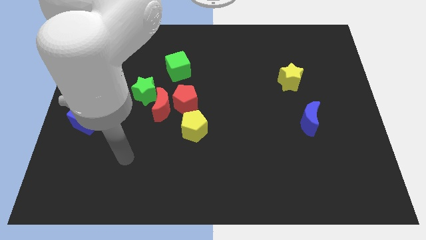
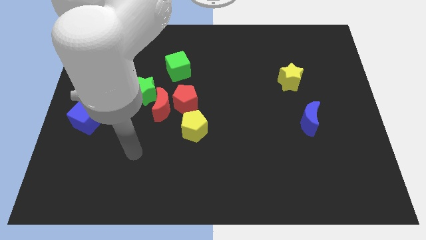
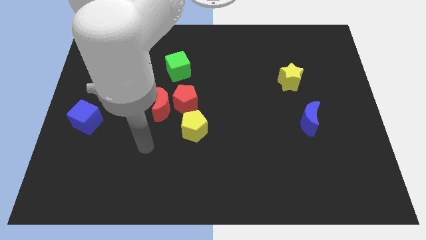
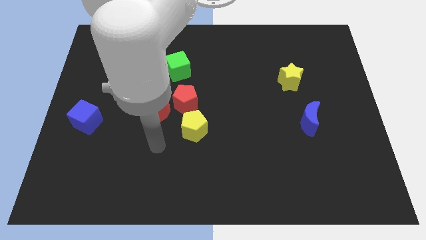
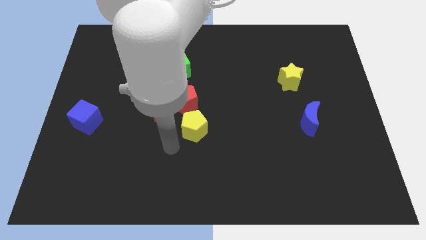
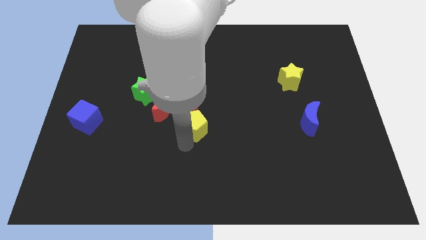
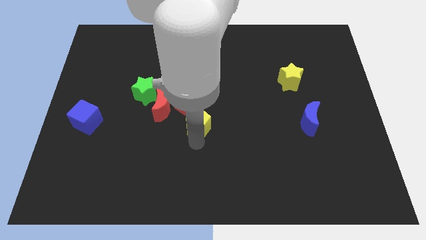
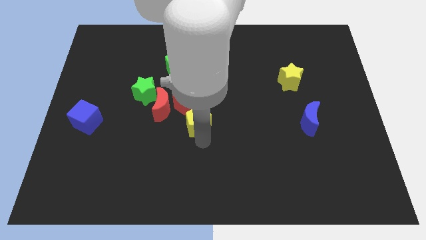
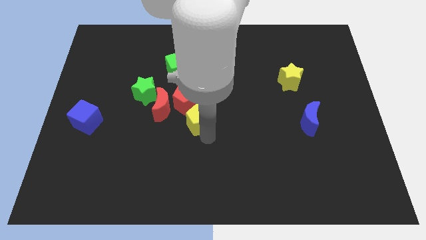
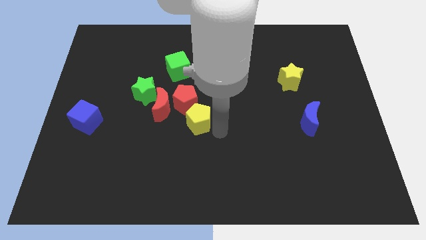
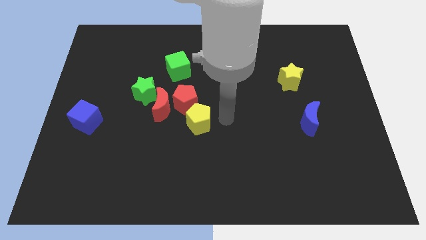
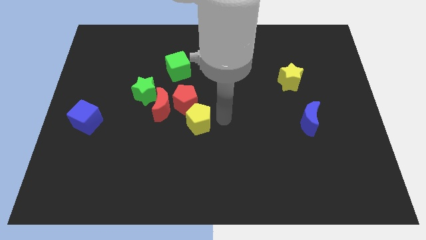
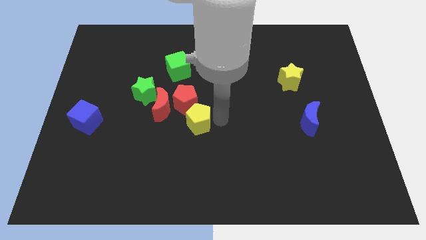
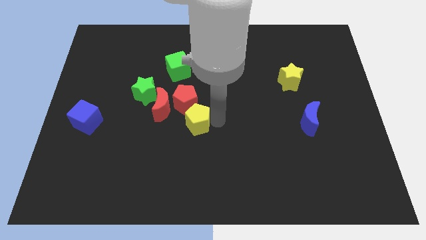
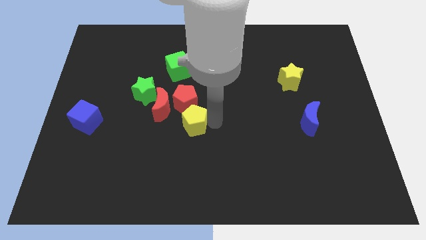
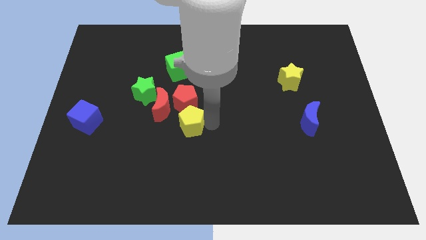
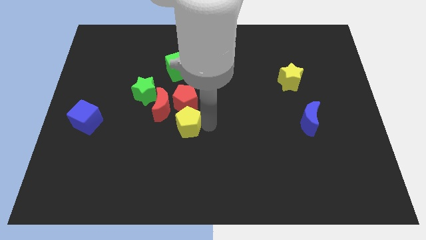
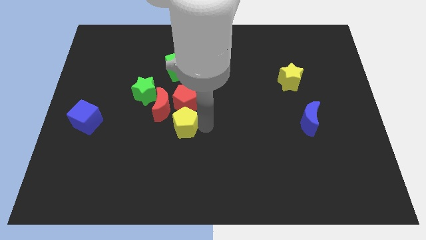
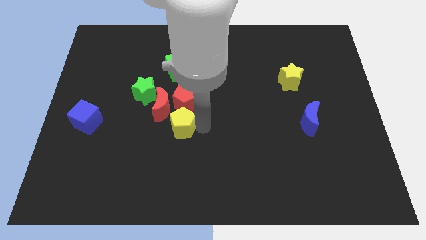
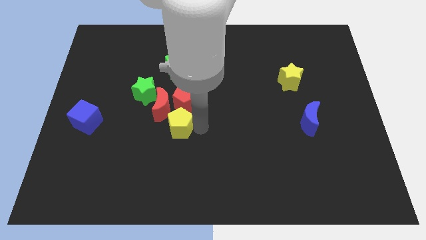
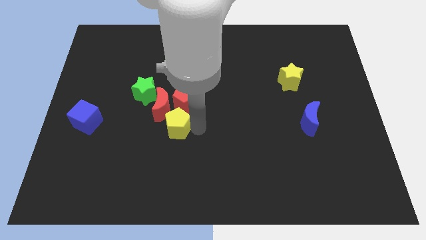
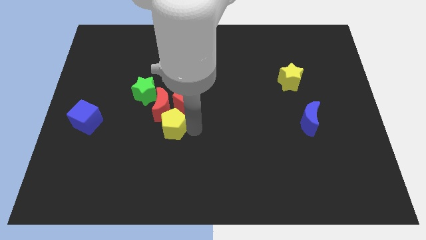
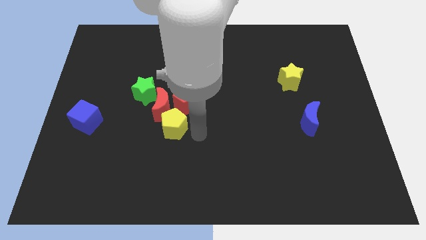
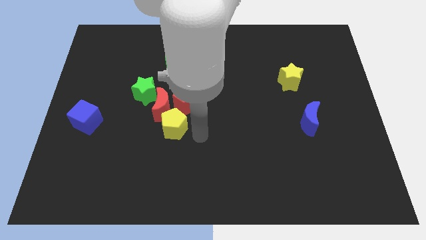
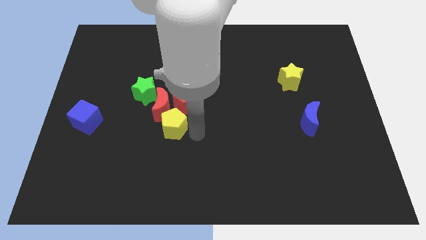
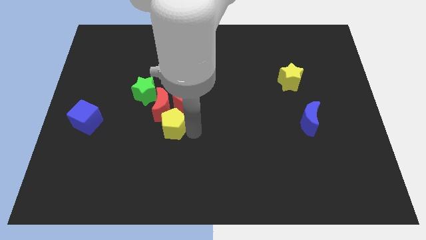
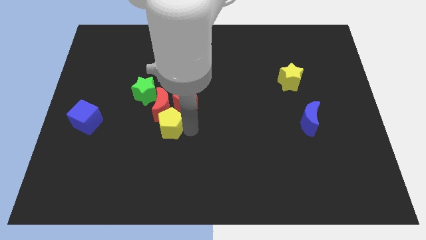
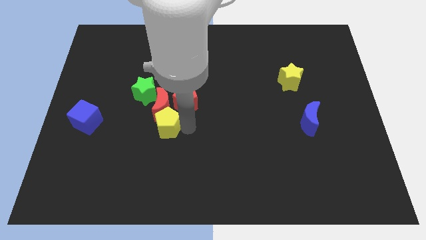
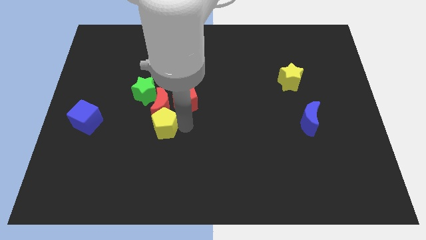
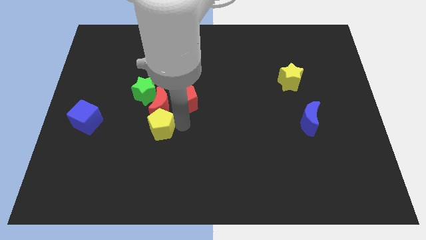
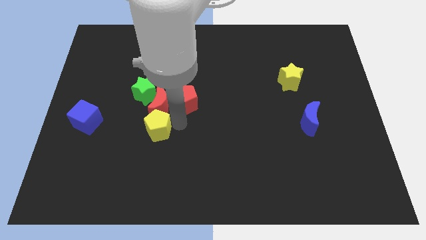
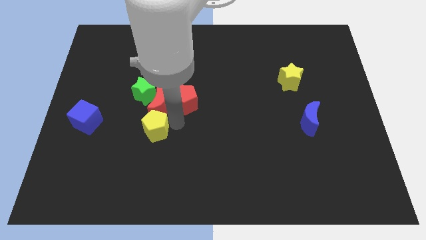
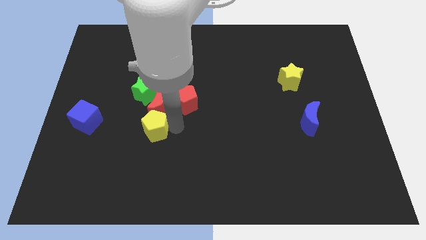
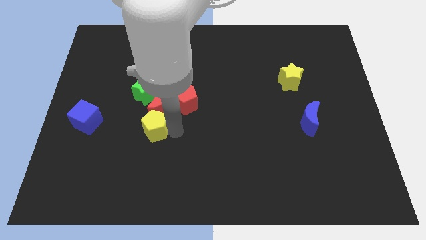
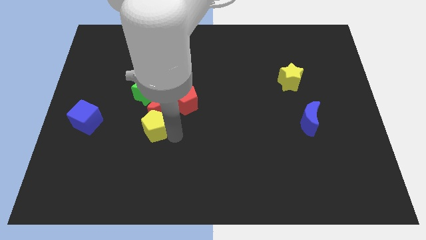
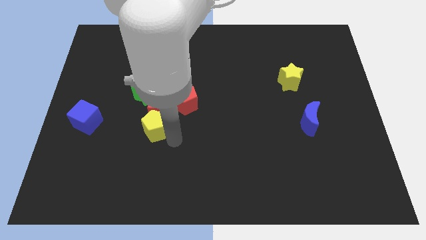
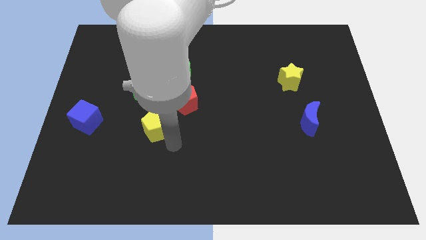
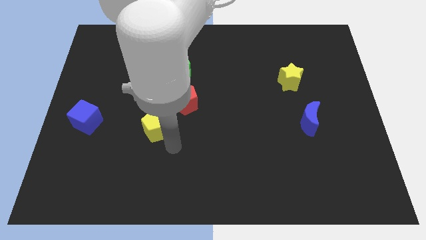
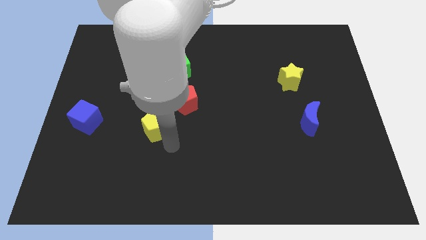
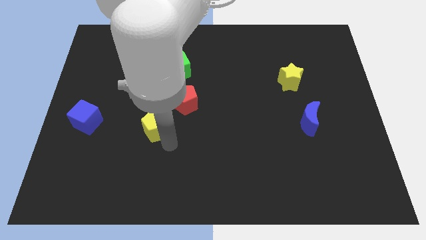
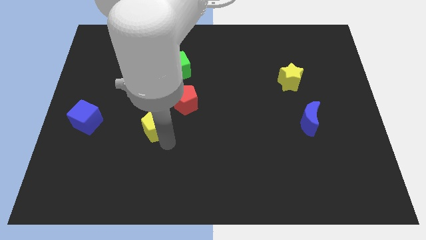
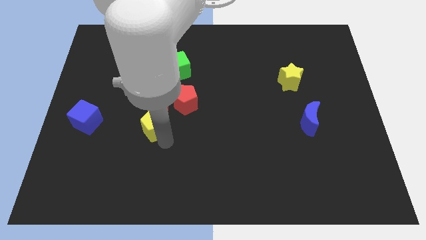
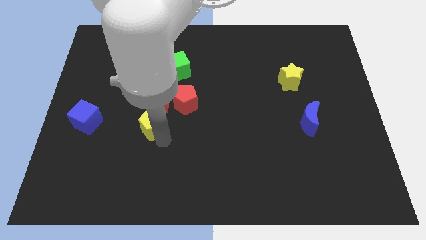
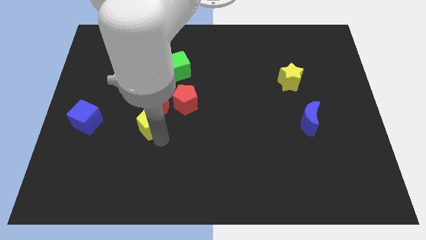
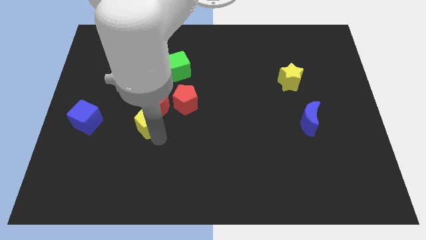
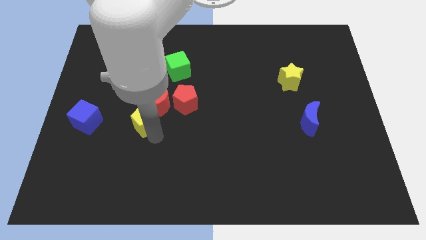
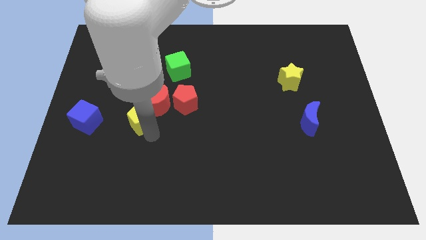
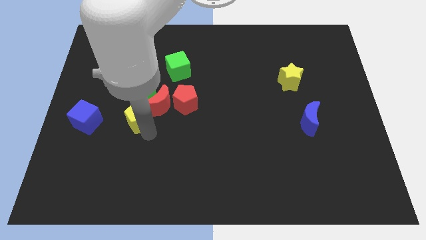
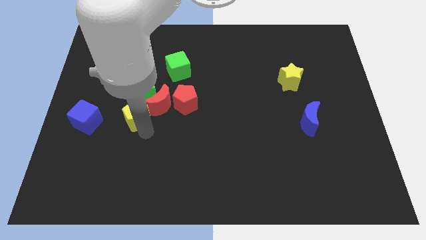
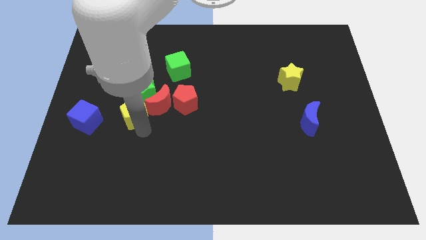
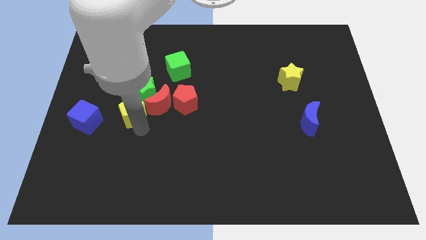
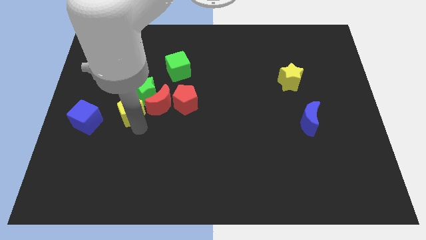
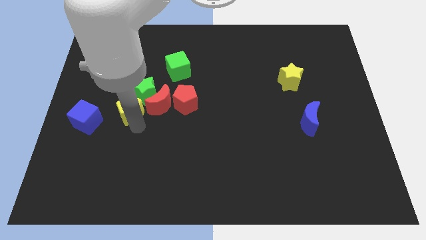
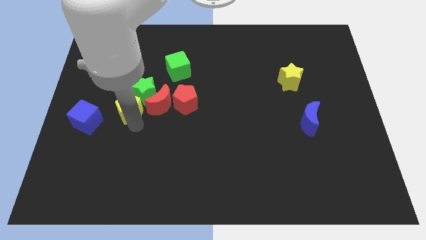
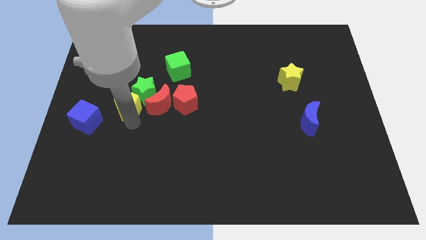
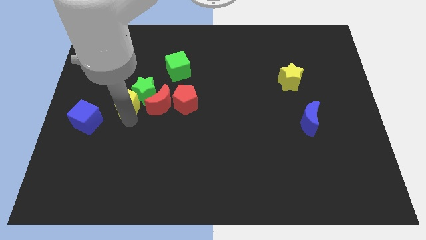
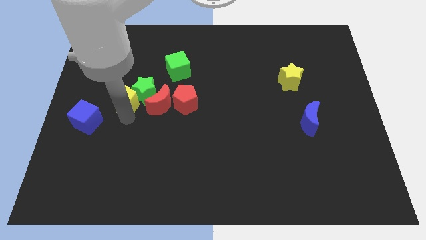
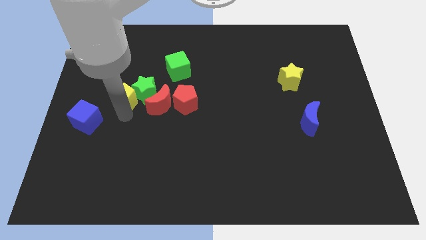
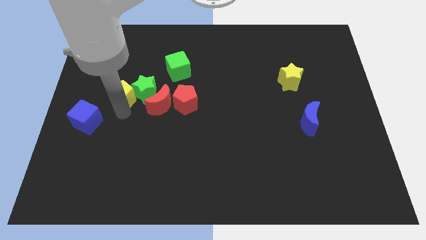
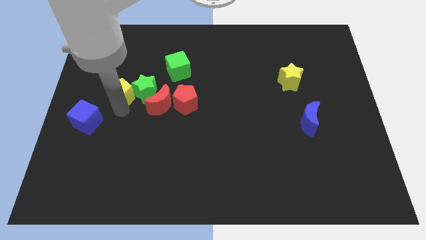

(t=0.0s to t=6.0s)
move the yellow pentagon to the top left side of the green star

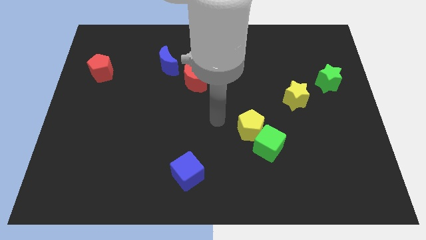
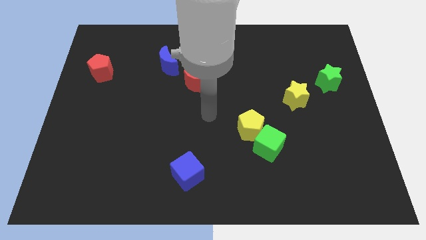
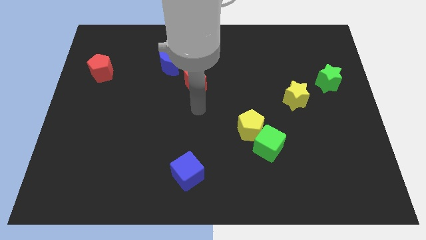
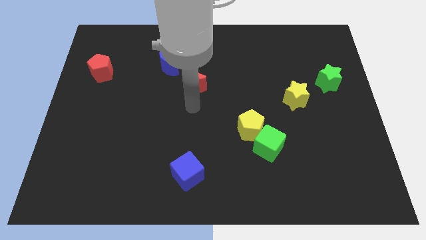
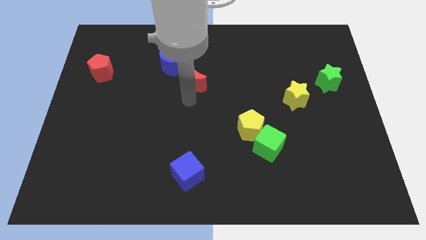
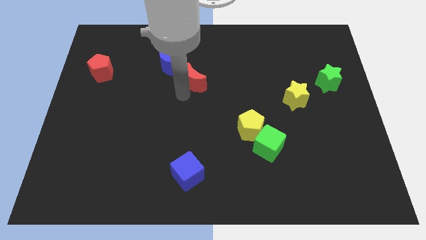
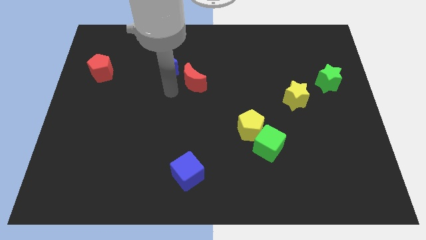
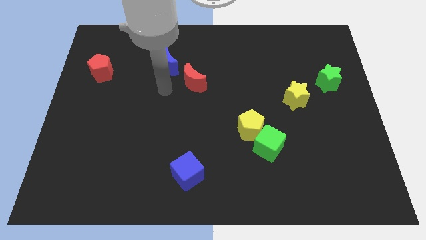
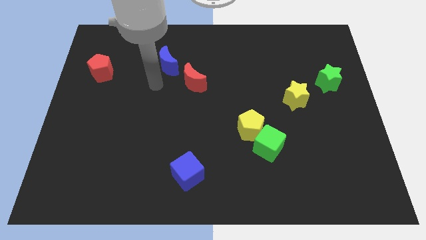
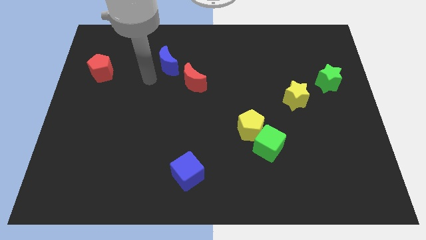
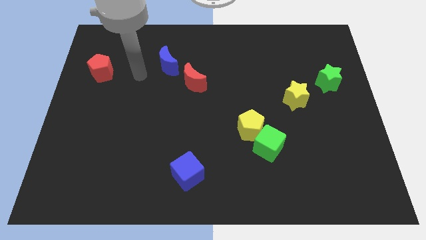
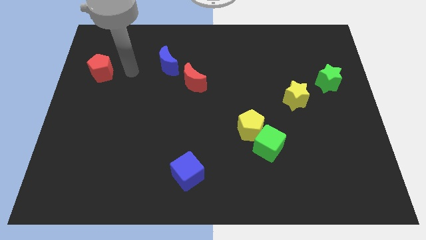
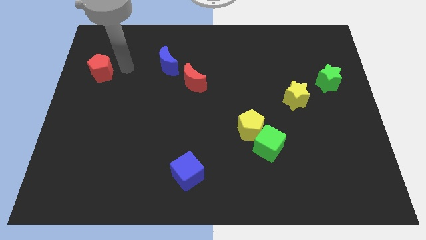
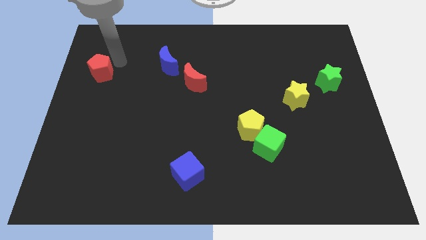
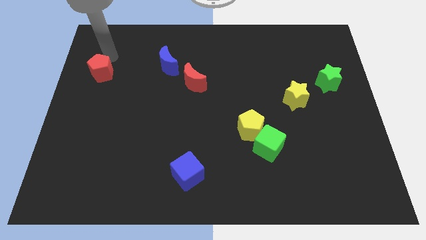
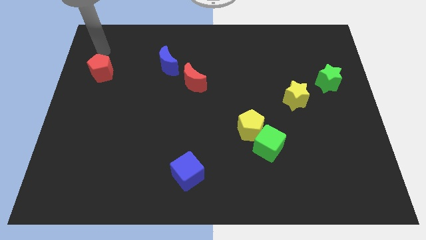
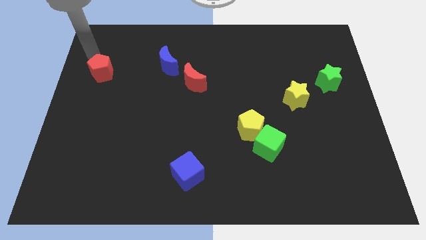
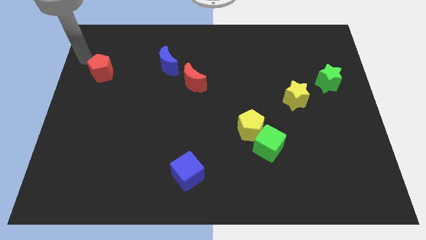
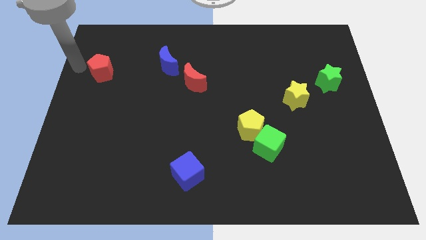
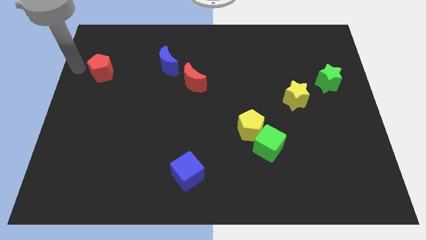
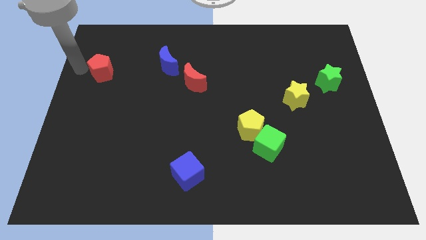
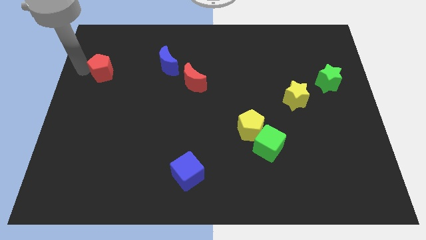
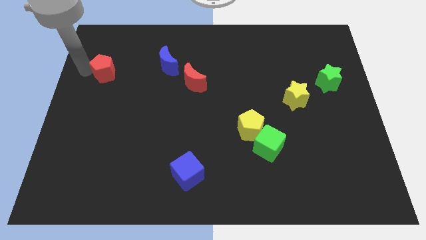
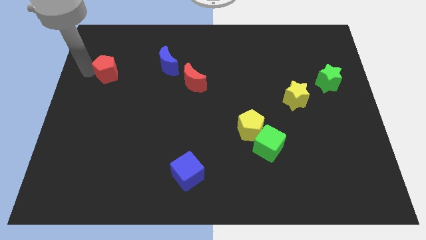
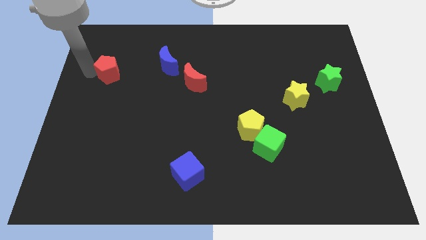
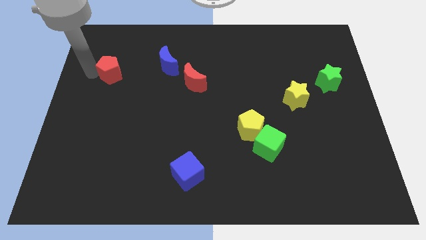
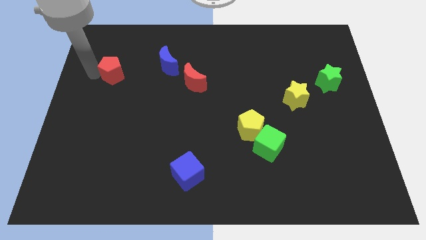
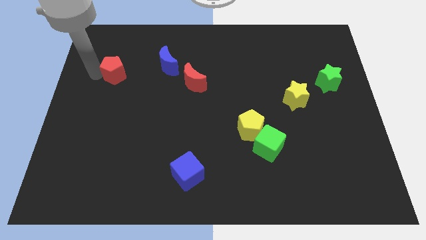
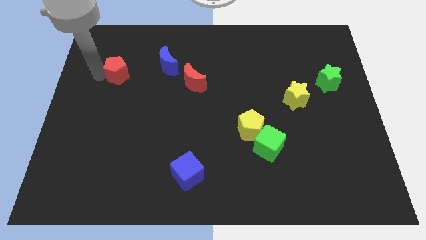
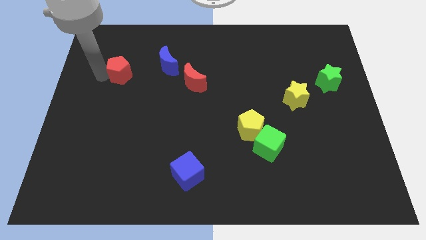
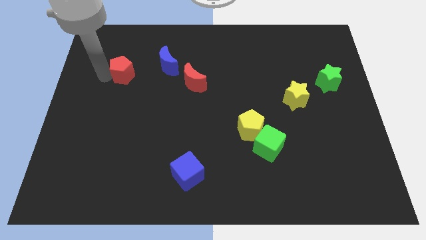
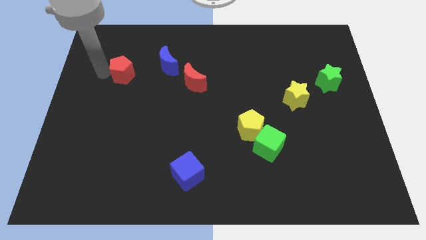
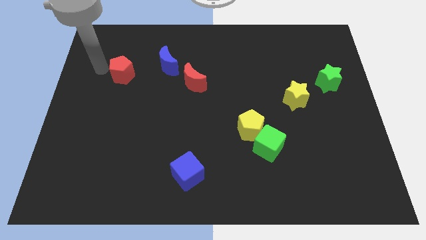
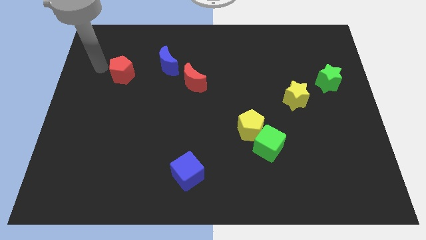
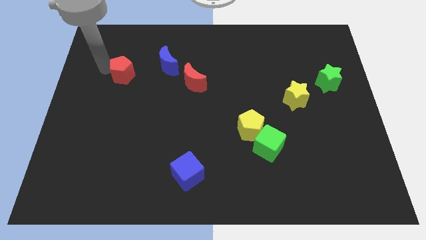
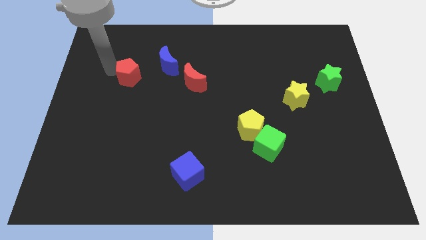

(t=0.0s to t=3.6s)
move the red pentagon to the bottom left side of the blue moon
